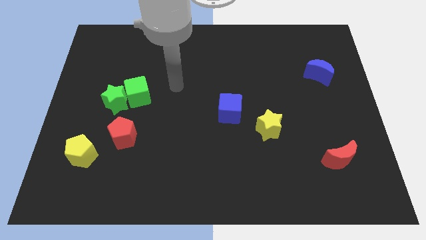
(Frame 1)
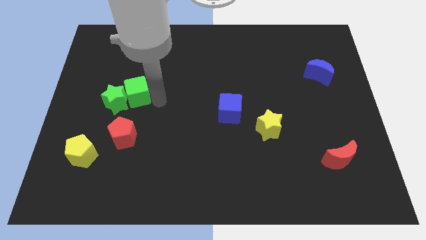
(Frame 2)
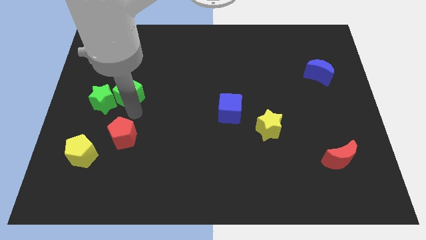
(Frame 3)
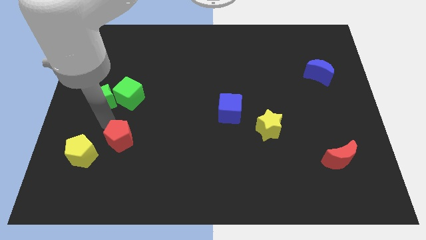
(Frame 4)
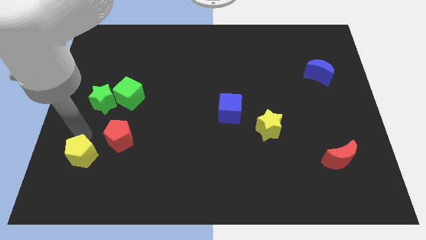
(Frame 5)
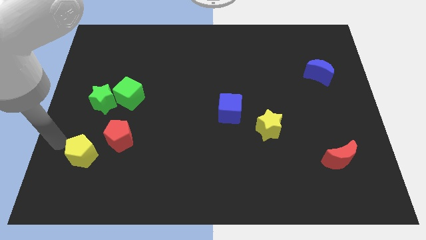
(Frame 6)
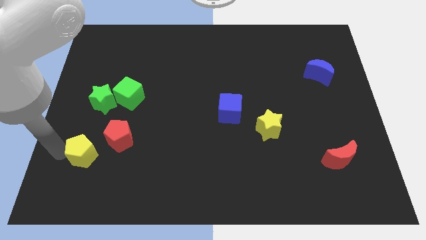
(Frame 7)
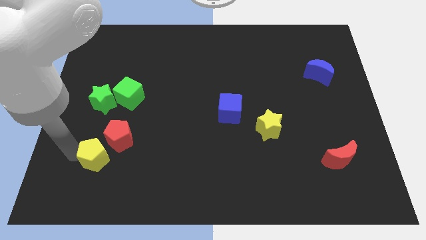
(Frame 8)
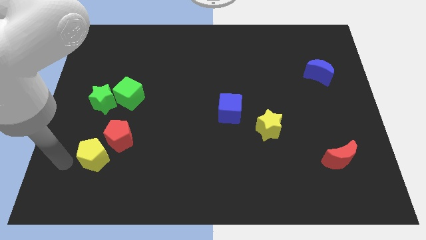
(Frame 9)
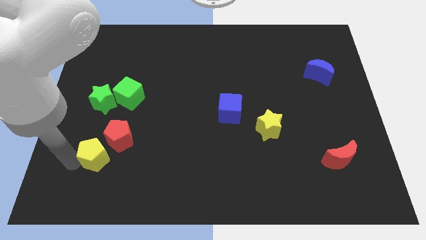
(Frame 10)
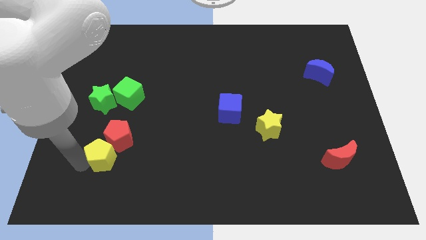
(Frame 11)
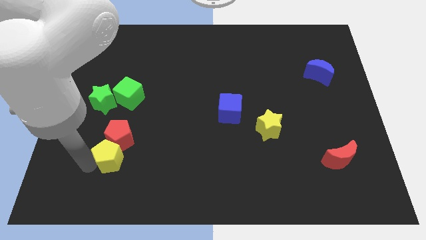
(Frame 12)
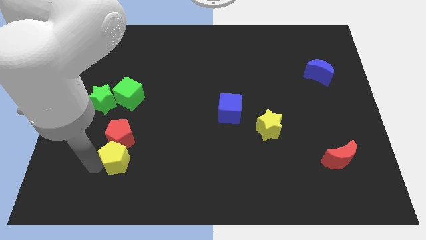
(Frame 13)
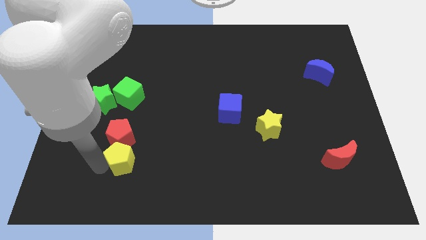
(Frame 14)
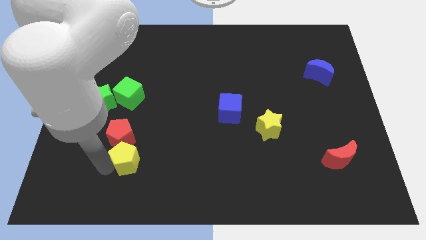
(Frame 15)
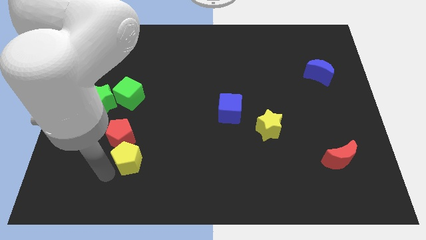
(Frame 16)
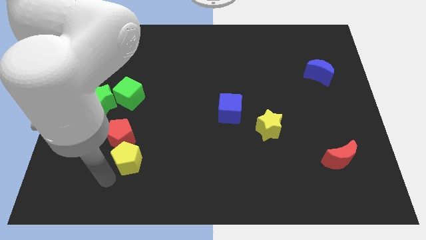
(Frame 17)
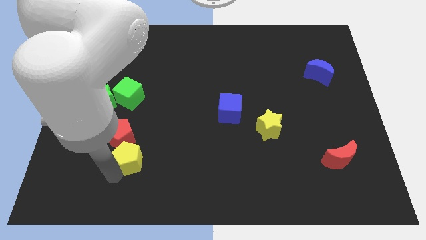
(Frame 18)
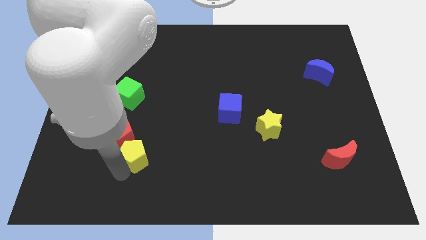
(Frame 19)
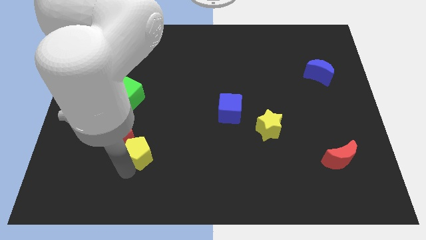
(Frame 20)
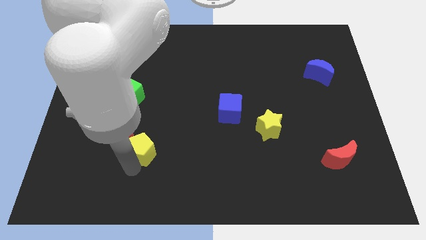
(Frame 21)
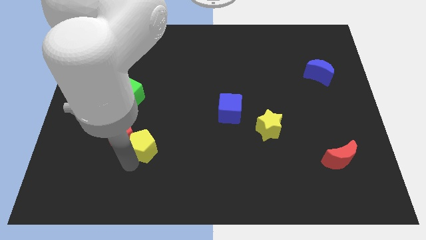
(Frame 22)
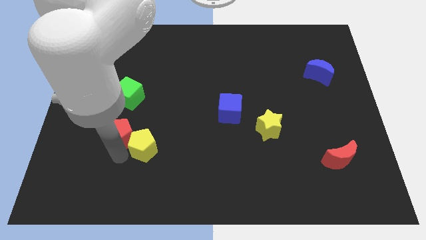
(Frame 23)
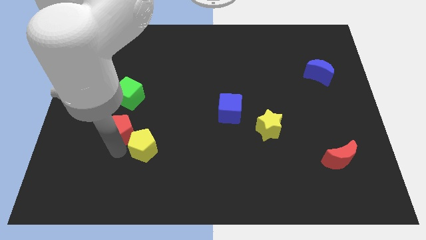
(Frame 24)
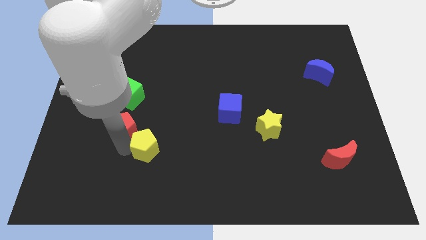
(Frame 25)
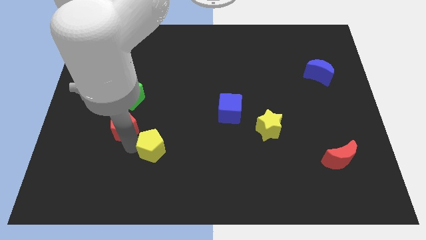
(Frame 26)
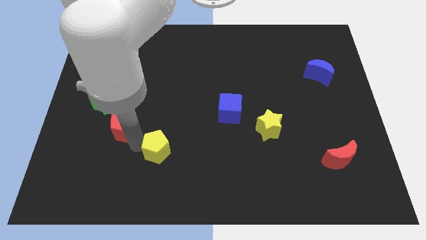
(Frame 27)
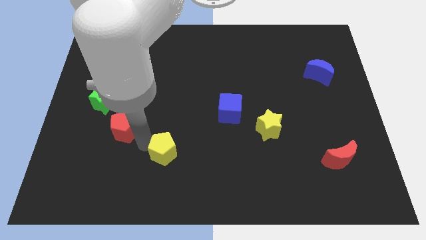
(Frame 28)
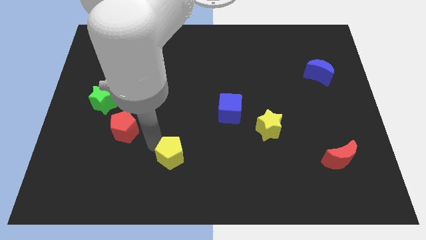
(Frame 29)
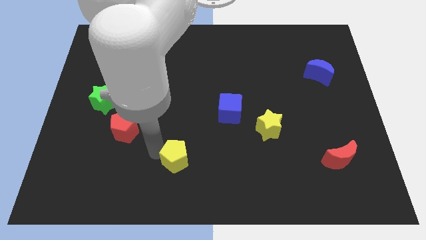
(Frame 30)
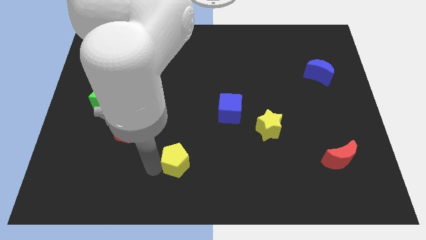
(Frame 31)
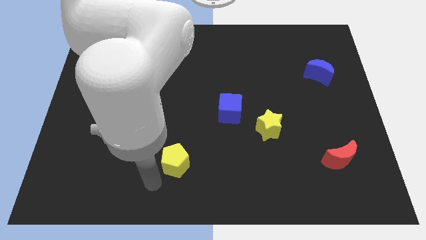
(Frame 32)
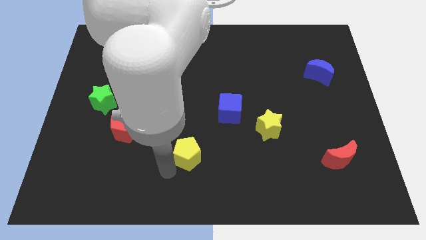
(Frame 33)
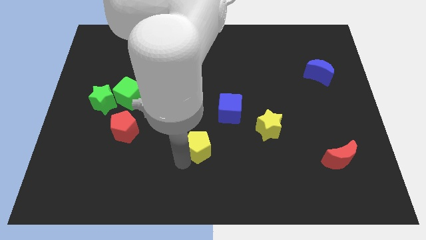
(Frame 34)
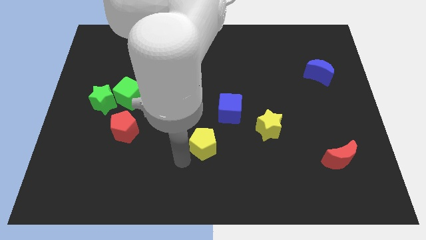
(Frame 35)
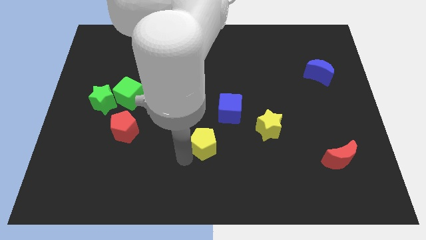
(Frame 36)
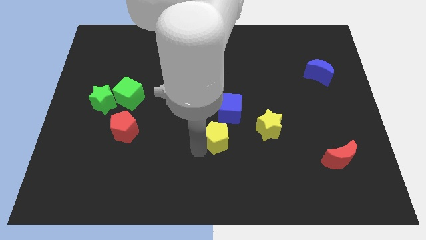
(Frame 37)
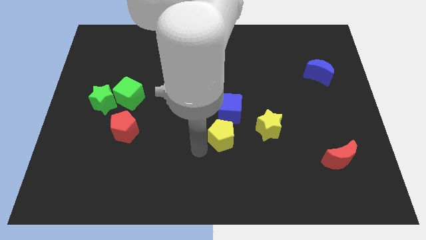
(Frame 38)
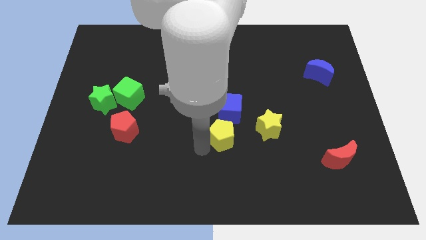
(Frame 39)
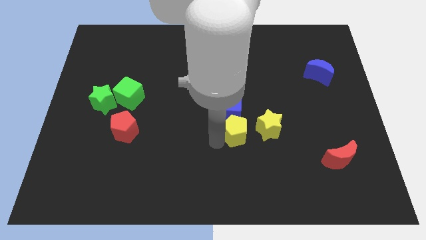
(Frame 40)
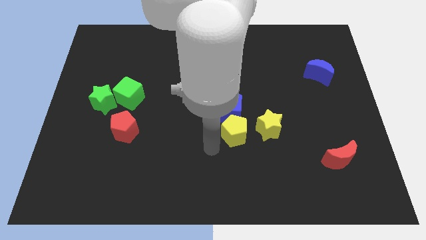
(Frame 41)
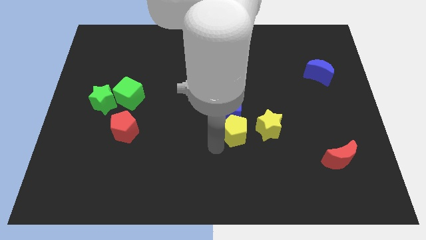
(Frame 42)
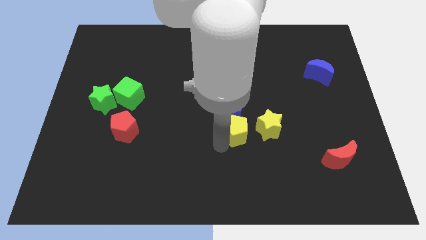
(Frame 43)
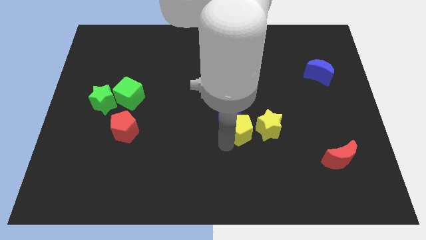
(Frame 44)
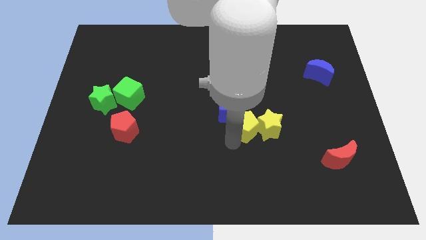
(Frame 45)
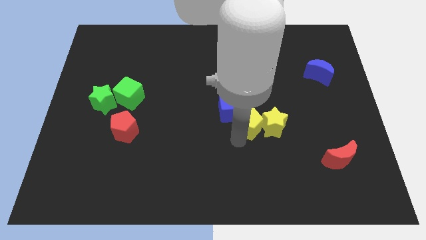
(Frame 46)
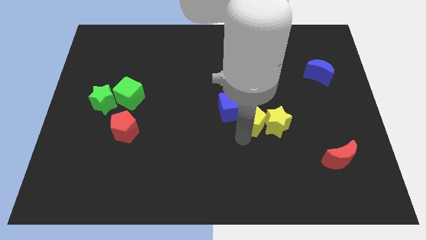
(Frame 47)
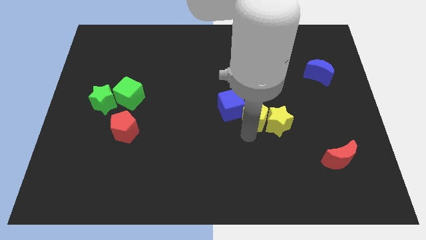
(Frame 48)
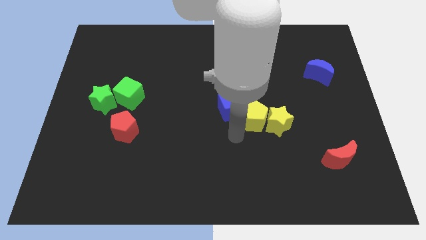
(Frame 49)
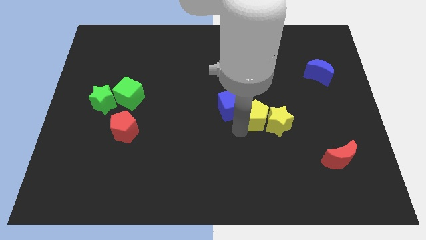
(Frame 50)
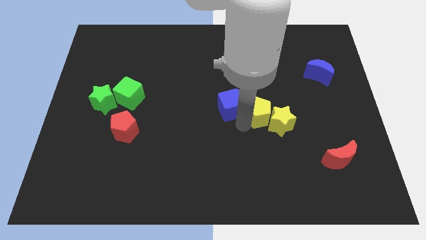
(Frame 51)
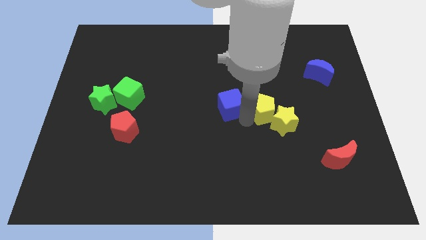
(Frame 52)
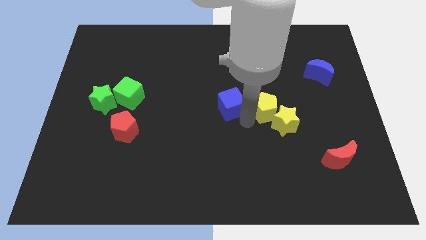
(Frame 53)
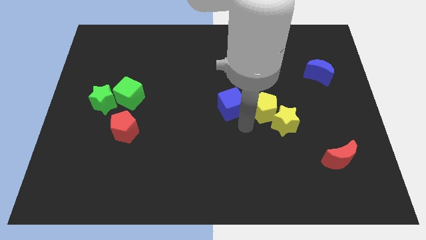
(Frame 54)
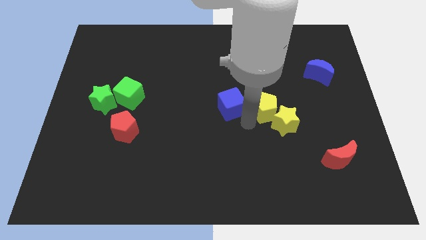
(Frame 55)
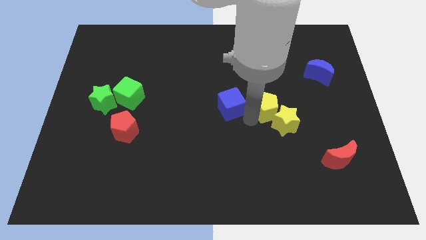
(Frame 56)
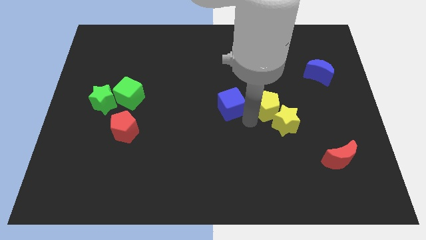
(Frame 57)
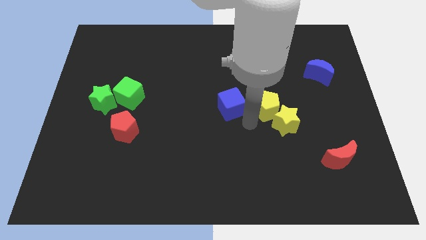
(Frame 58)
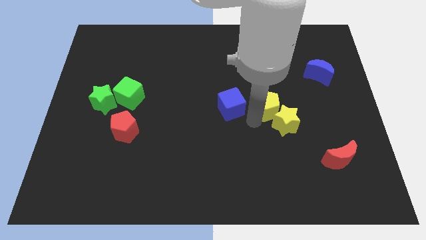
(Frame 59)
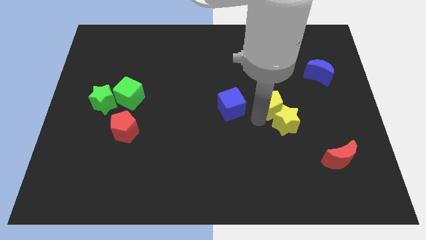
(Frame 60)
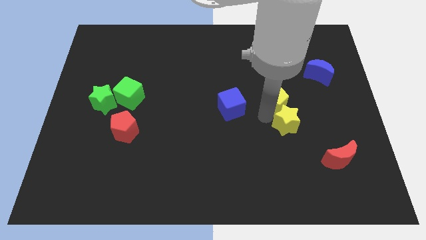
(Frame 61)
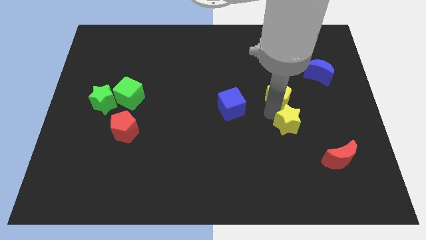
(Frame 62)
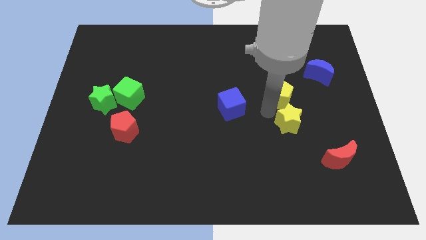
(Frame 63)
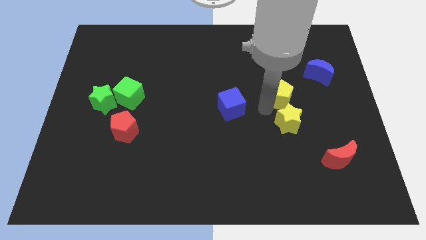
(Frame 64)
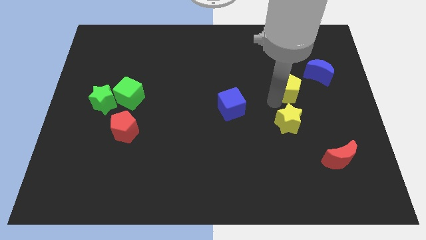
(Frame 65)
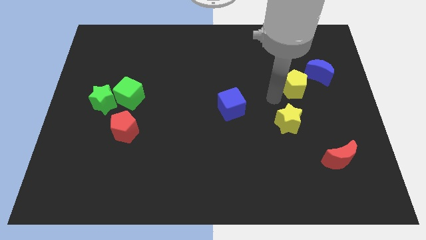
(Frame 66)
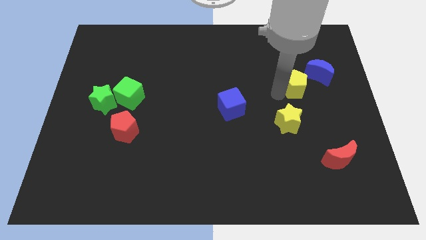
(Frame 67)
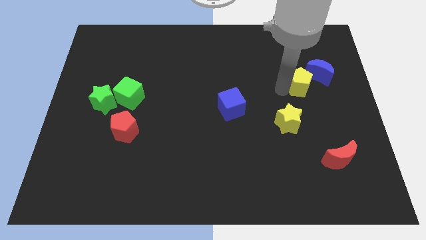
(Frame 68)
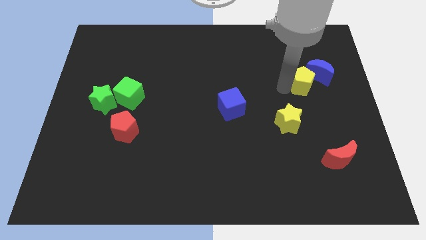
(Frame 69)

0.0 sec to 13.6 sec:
push the yellow pentagon towards the blue moon
